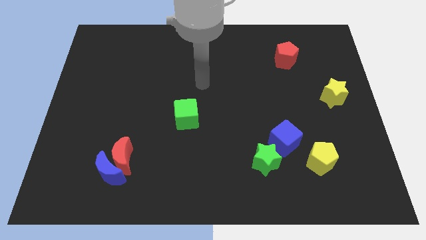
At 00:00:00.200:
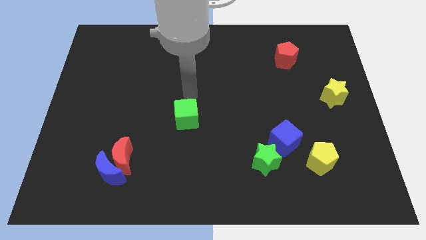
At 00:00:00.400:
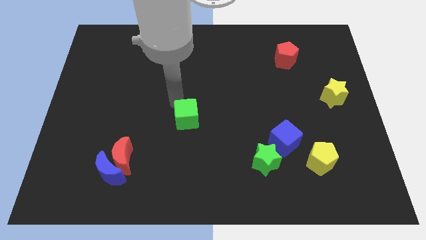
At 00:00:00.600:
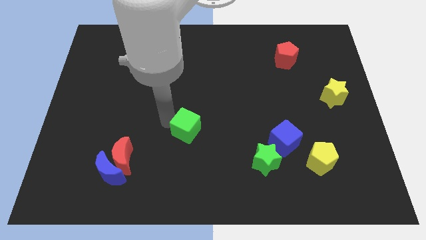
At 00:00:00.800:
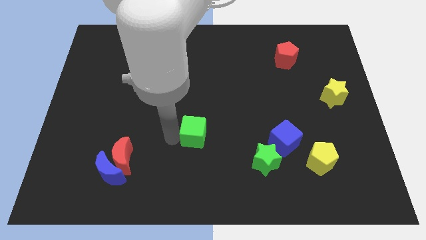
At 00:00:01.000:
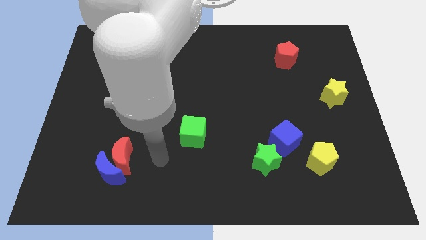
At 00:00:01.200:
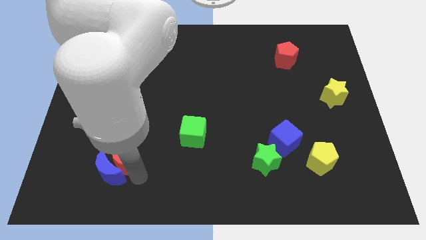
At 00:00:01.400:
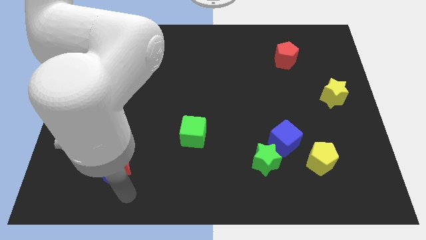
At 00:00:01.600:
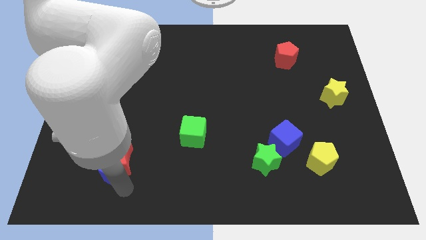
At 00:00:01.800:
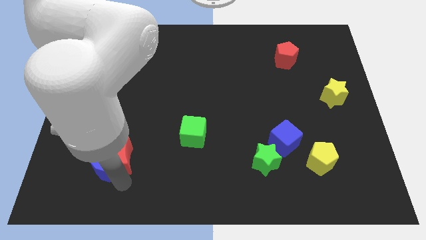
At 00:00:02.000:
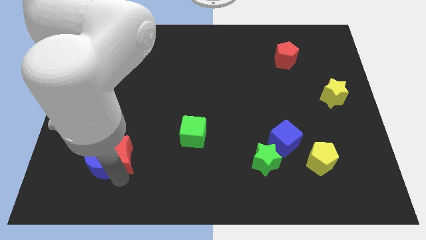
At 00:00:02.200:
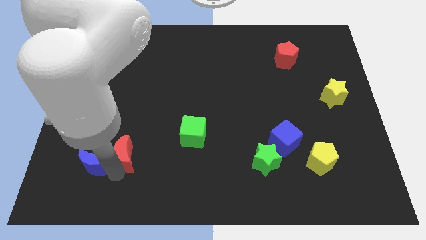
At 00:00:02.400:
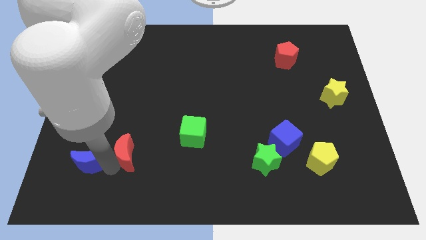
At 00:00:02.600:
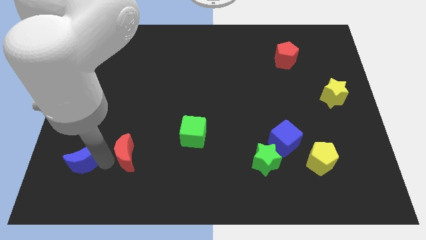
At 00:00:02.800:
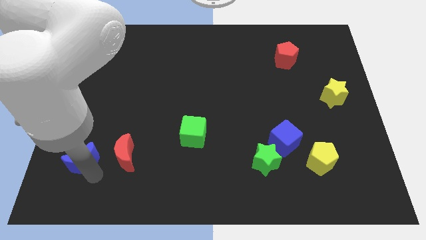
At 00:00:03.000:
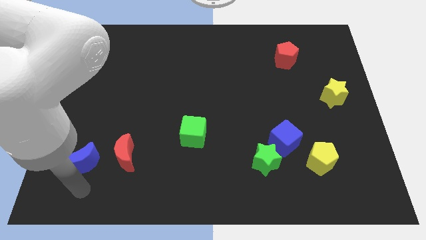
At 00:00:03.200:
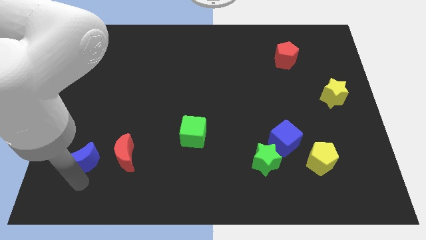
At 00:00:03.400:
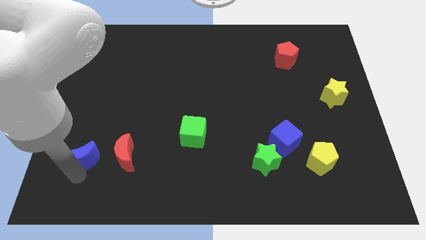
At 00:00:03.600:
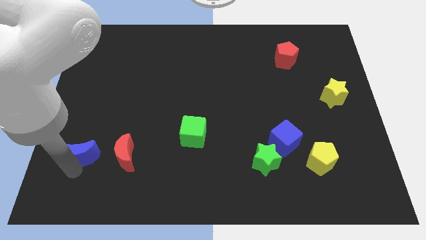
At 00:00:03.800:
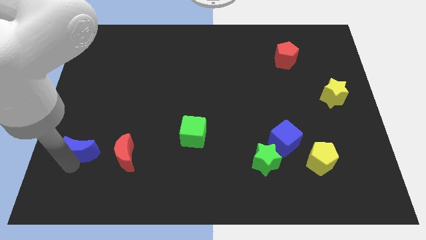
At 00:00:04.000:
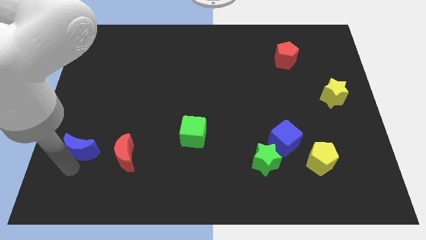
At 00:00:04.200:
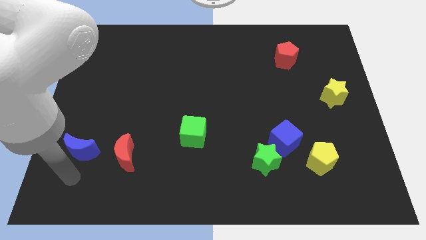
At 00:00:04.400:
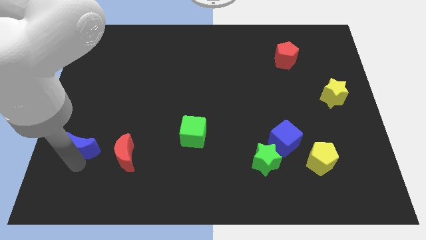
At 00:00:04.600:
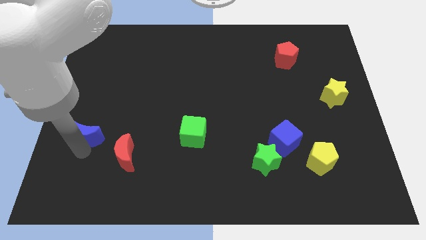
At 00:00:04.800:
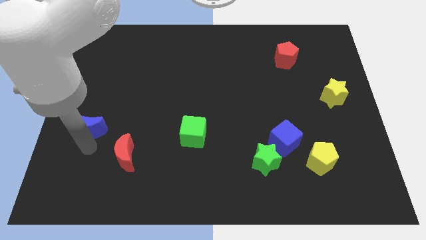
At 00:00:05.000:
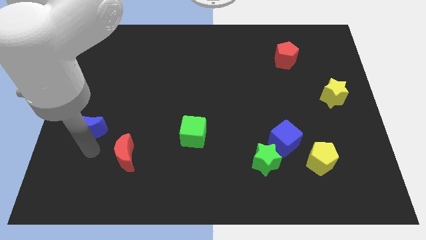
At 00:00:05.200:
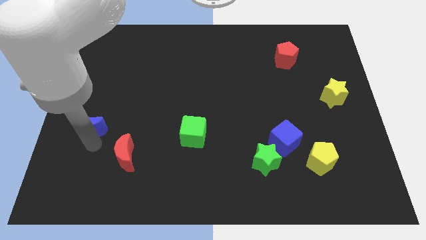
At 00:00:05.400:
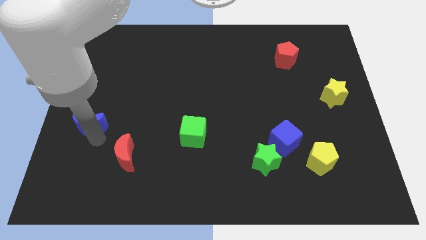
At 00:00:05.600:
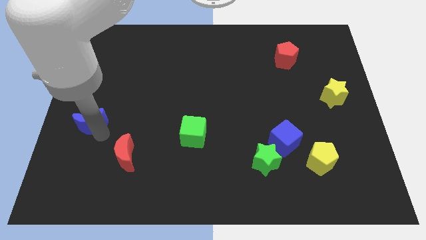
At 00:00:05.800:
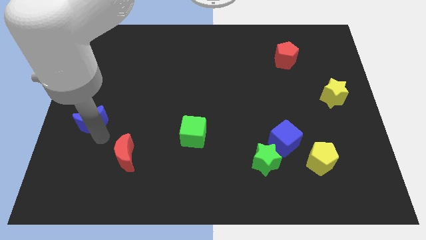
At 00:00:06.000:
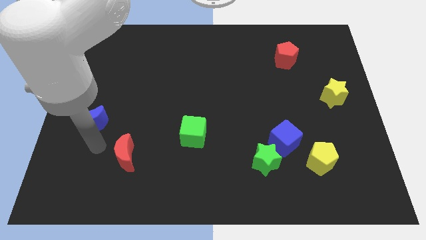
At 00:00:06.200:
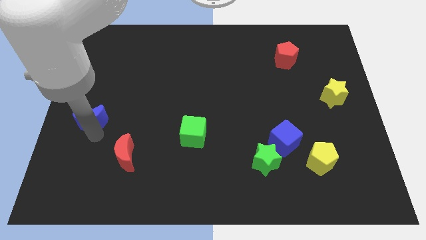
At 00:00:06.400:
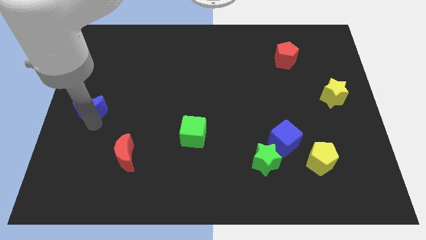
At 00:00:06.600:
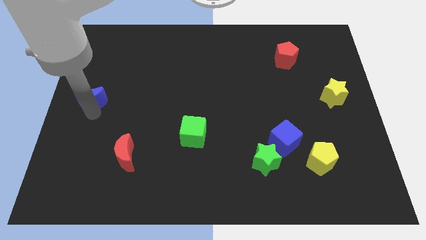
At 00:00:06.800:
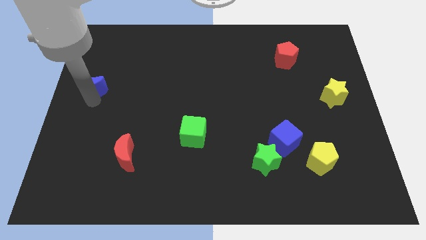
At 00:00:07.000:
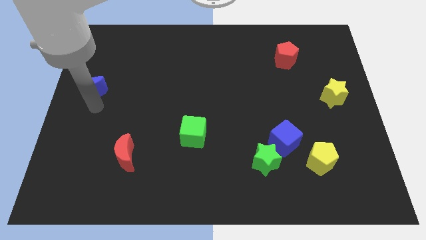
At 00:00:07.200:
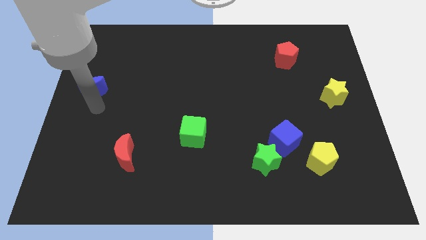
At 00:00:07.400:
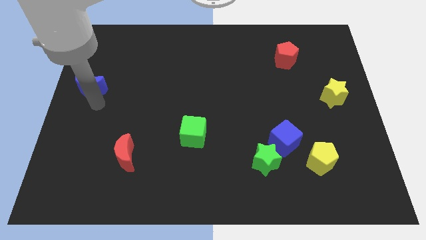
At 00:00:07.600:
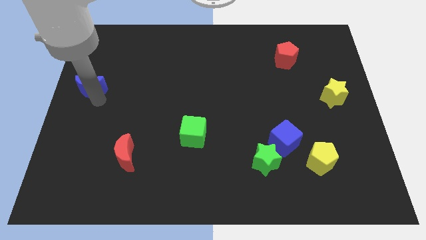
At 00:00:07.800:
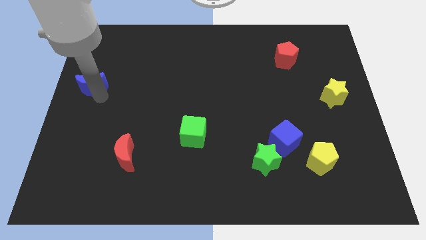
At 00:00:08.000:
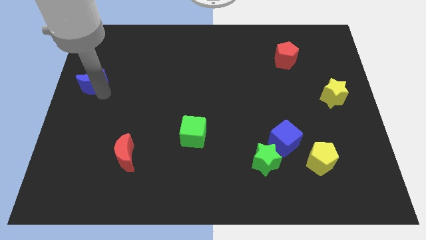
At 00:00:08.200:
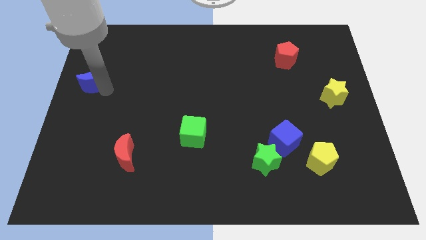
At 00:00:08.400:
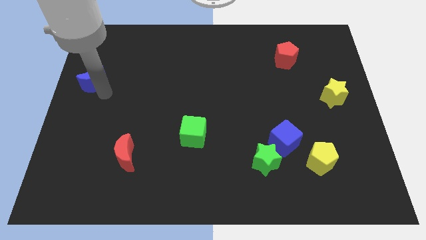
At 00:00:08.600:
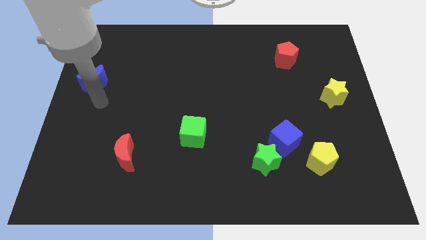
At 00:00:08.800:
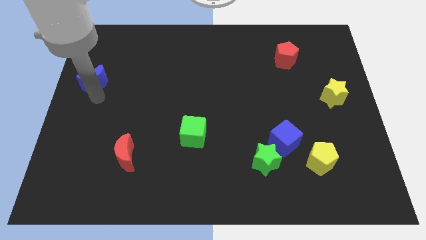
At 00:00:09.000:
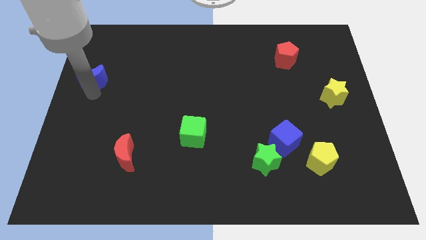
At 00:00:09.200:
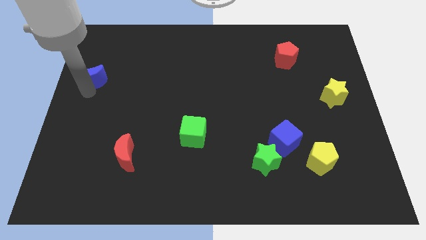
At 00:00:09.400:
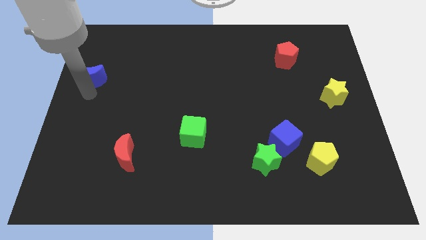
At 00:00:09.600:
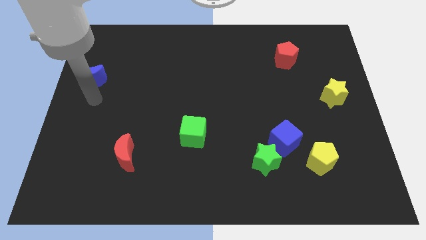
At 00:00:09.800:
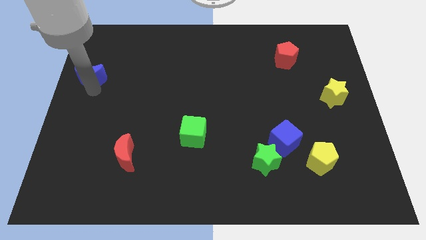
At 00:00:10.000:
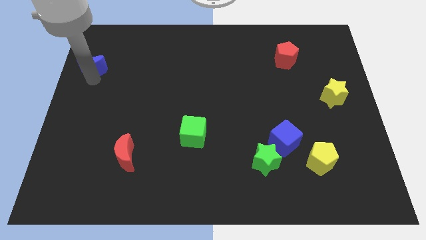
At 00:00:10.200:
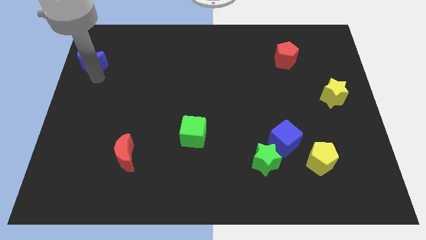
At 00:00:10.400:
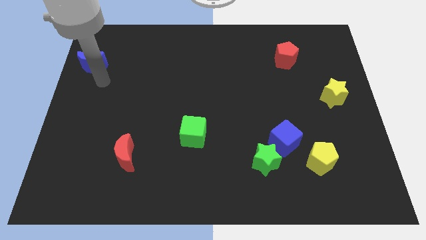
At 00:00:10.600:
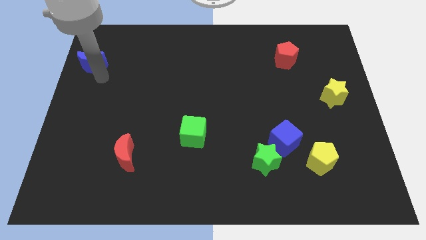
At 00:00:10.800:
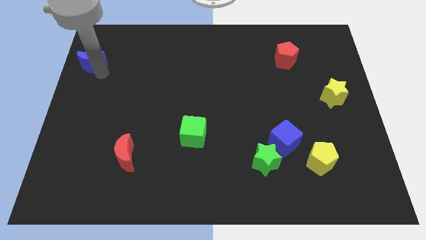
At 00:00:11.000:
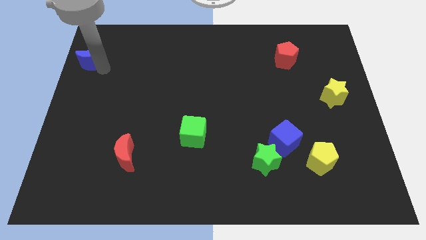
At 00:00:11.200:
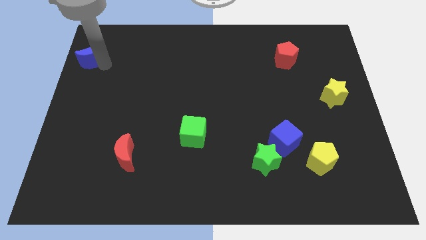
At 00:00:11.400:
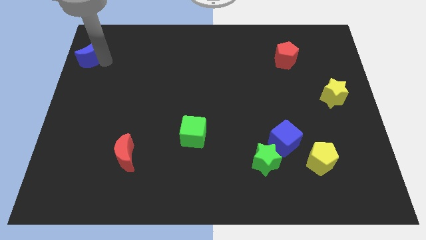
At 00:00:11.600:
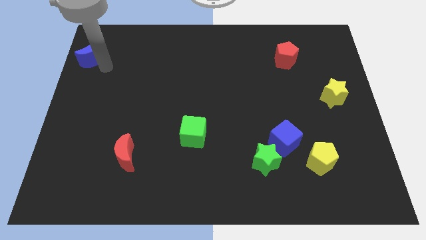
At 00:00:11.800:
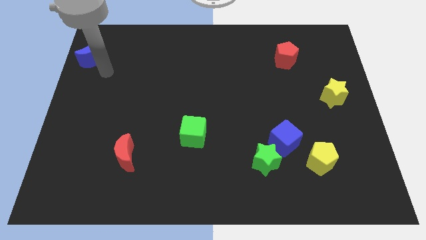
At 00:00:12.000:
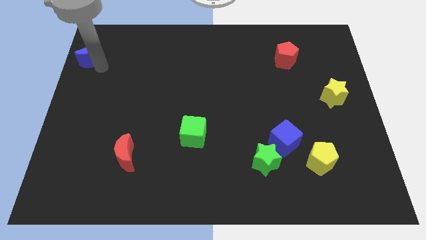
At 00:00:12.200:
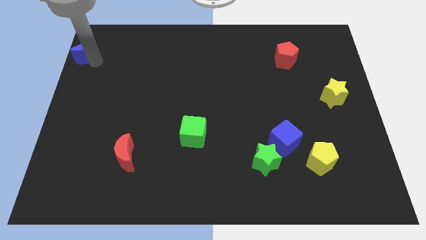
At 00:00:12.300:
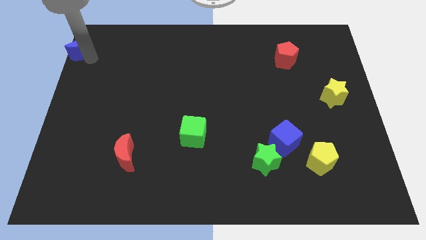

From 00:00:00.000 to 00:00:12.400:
slide the blue moon to the top left corner

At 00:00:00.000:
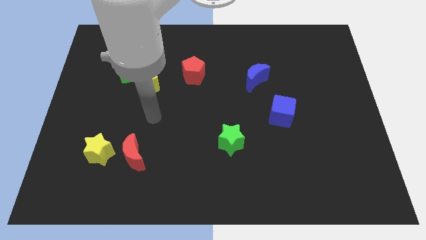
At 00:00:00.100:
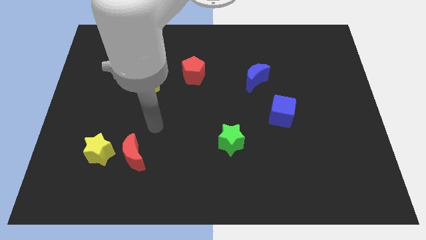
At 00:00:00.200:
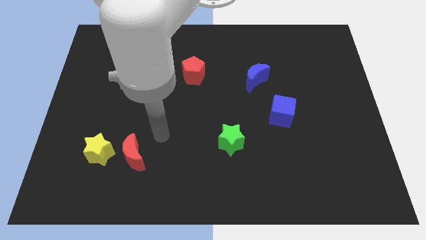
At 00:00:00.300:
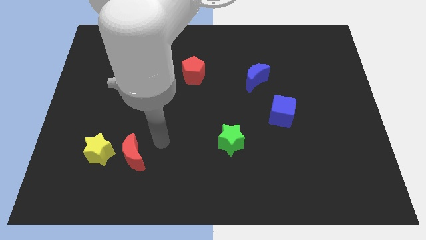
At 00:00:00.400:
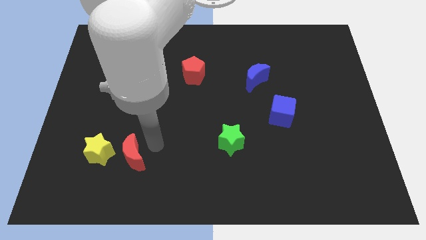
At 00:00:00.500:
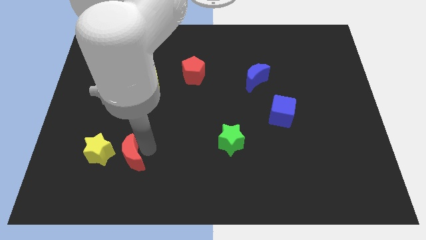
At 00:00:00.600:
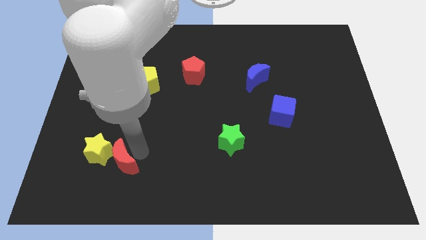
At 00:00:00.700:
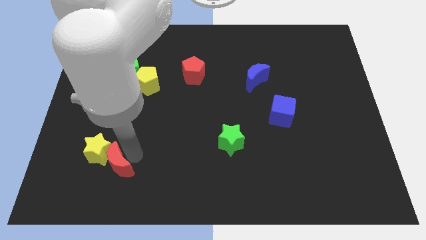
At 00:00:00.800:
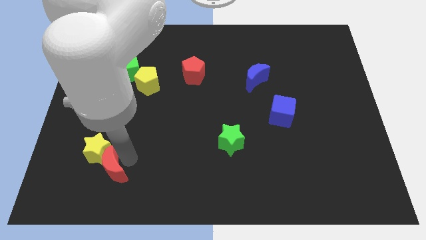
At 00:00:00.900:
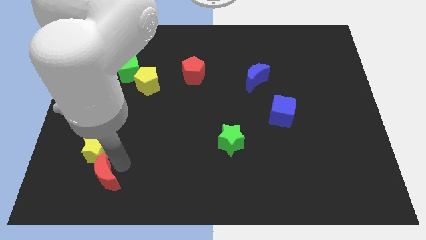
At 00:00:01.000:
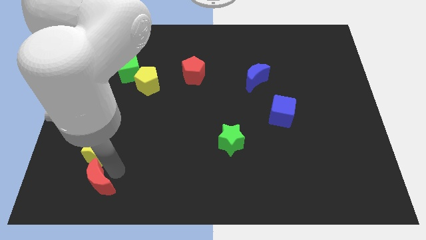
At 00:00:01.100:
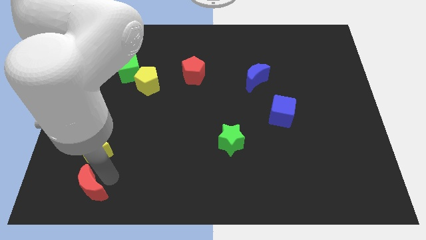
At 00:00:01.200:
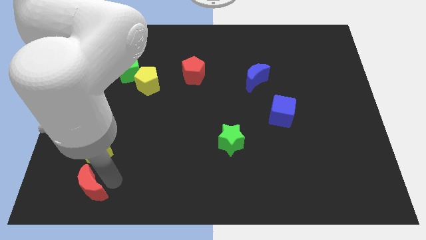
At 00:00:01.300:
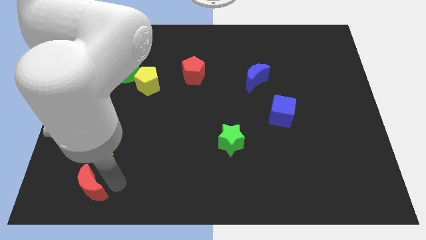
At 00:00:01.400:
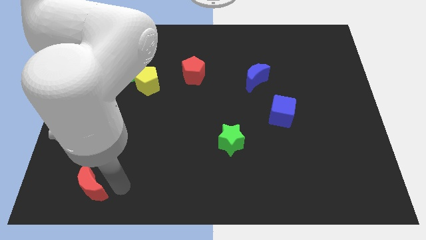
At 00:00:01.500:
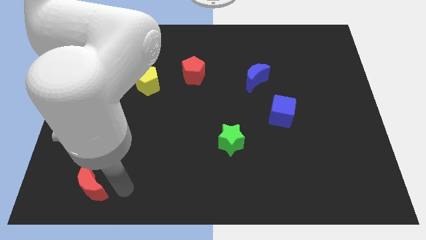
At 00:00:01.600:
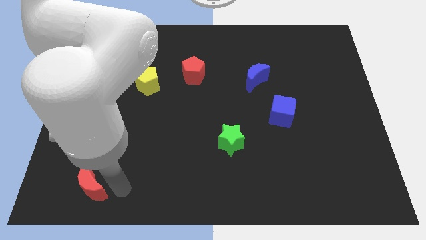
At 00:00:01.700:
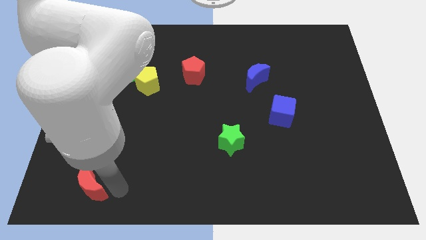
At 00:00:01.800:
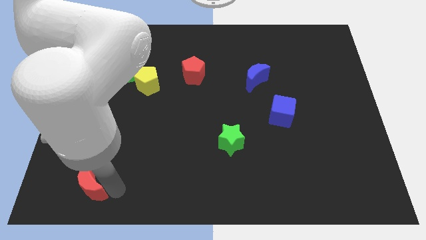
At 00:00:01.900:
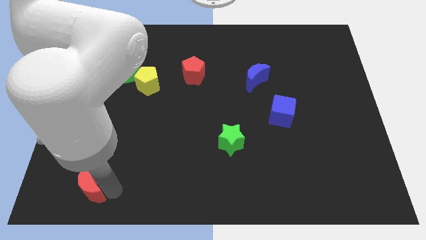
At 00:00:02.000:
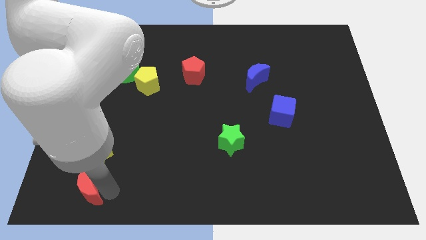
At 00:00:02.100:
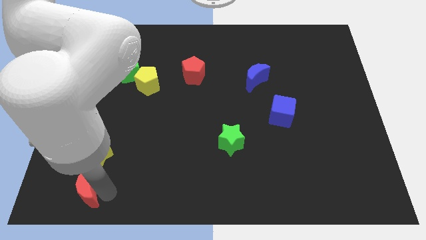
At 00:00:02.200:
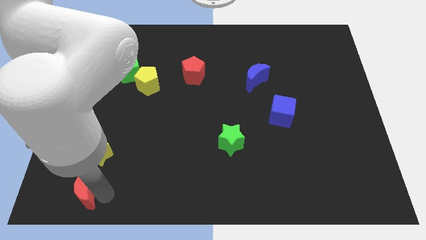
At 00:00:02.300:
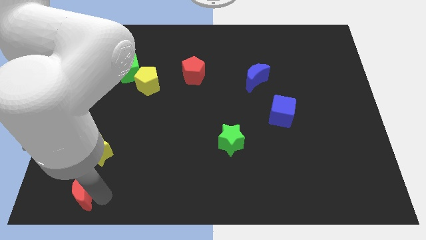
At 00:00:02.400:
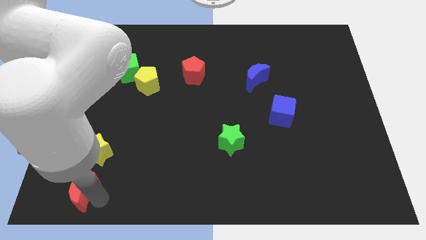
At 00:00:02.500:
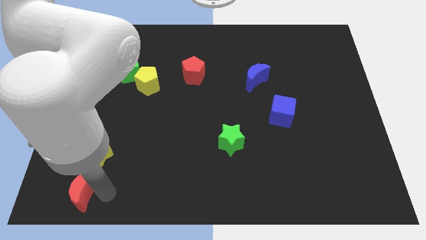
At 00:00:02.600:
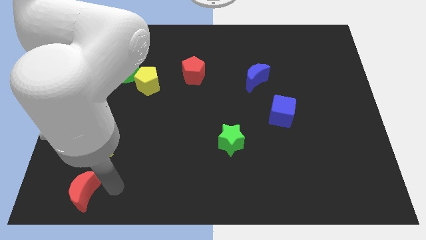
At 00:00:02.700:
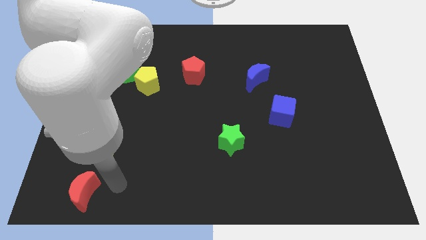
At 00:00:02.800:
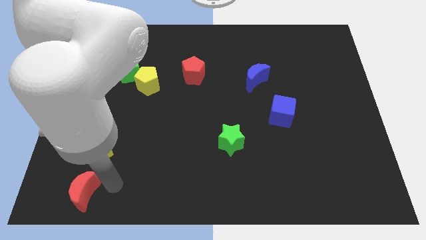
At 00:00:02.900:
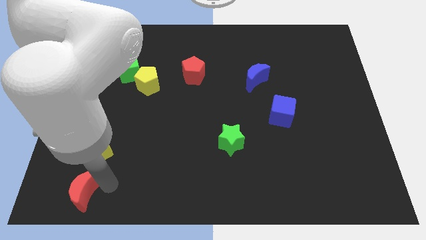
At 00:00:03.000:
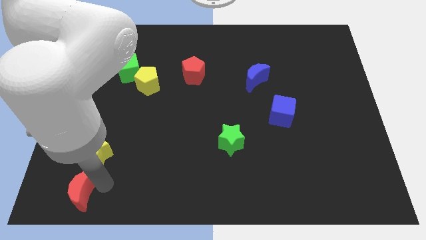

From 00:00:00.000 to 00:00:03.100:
move the red moon to the bottom left of the board
